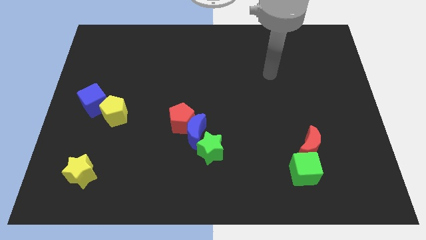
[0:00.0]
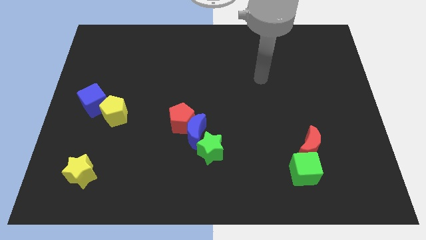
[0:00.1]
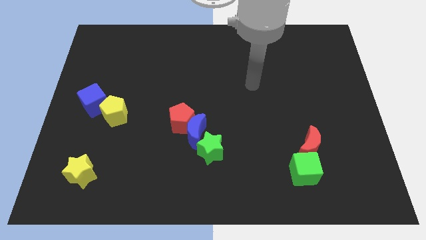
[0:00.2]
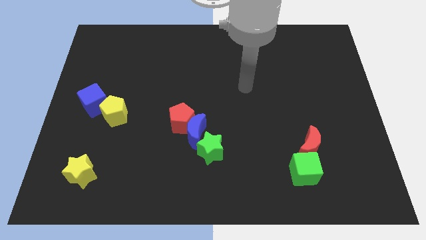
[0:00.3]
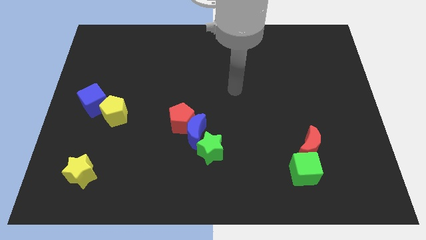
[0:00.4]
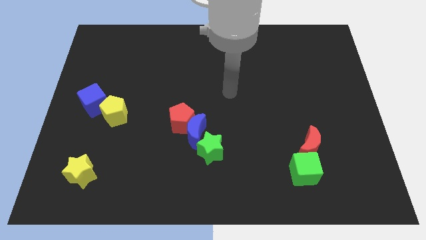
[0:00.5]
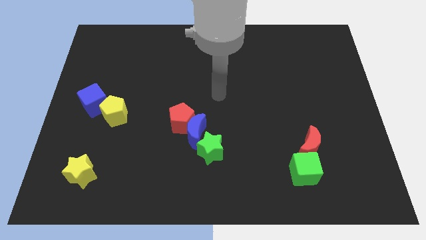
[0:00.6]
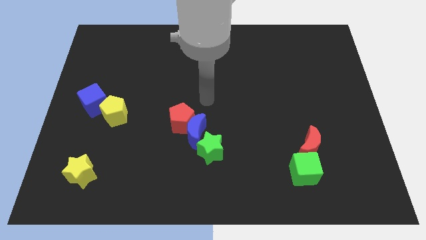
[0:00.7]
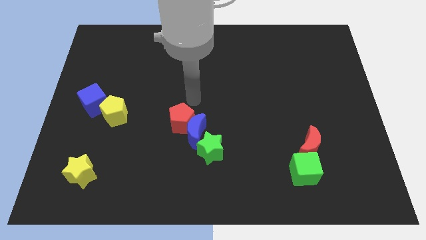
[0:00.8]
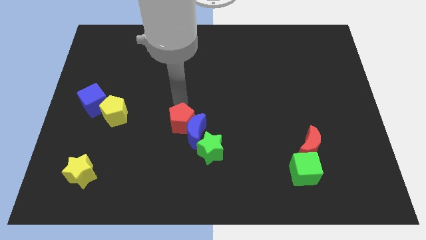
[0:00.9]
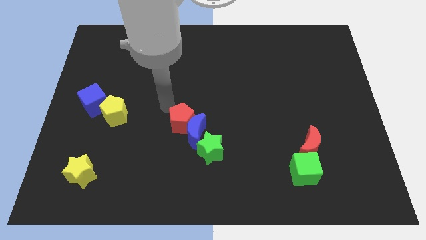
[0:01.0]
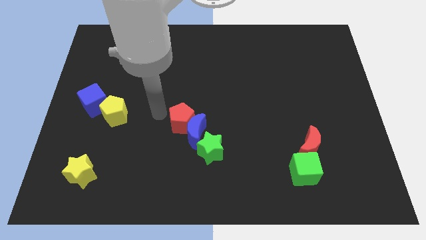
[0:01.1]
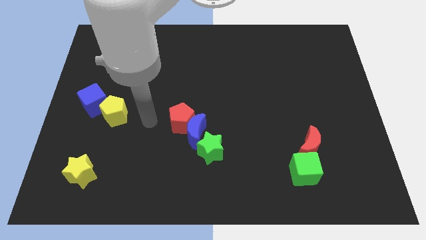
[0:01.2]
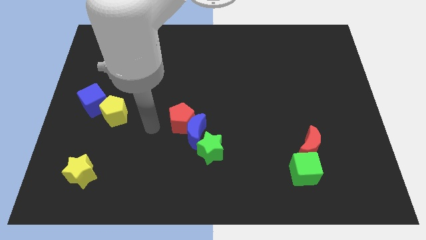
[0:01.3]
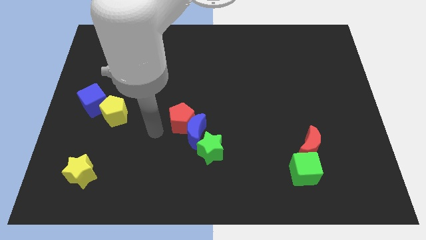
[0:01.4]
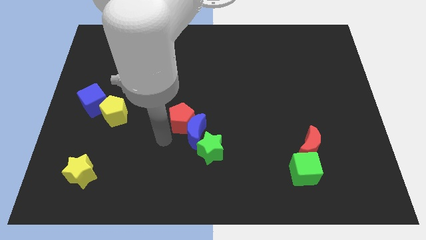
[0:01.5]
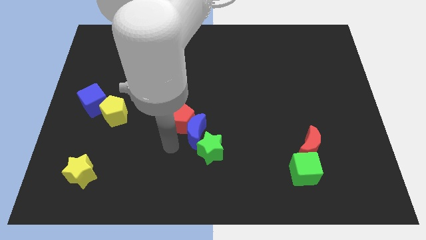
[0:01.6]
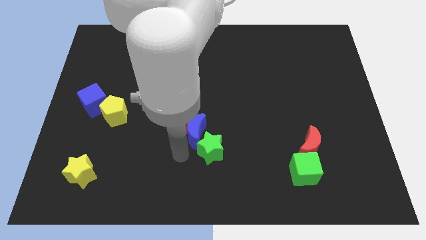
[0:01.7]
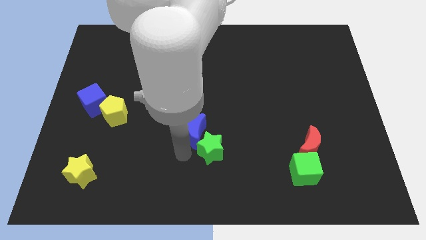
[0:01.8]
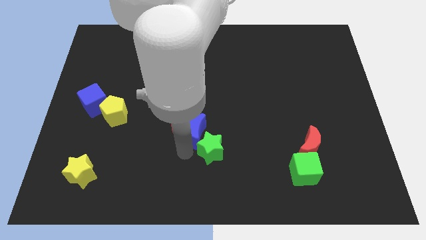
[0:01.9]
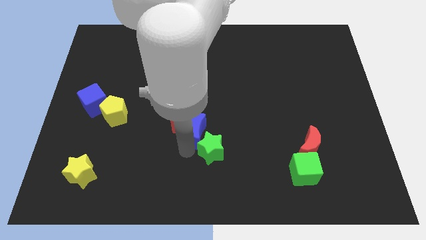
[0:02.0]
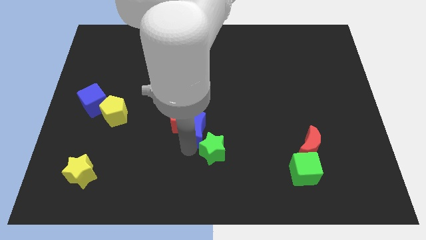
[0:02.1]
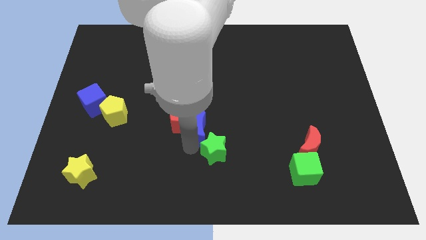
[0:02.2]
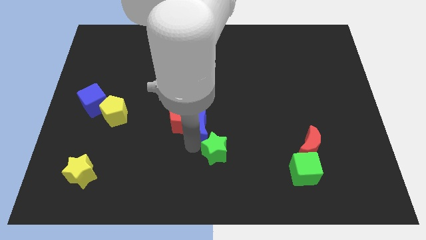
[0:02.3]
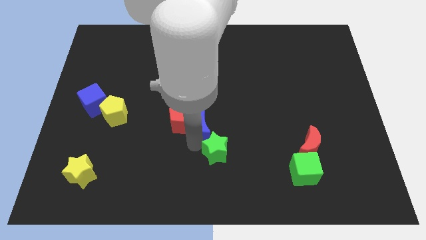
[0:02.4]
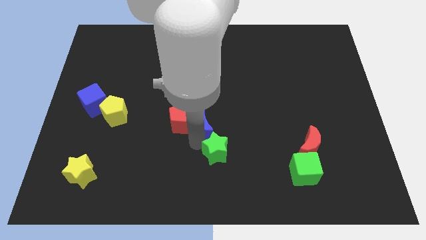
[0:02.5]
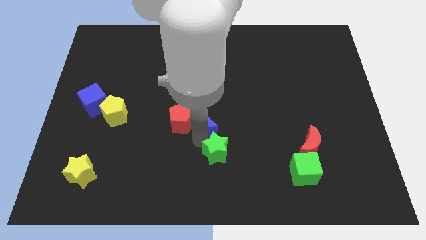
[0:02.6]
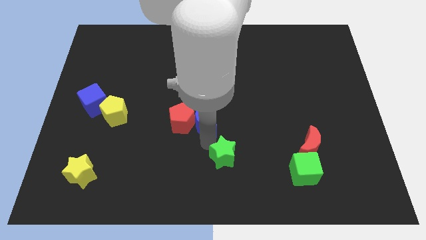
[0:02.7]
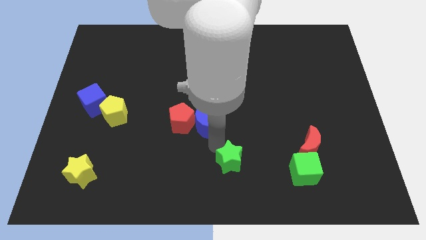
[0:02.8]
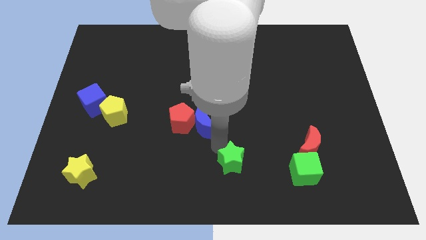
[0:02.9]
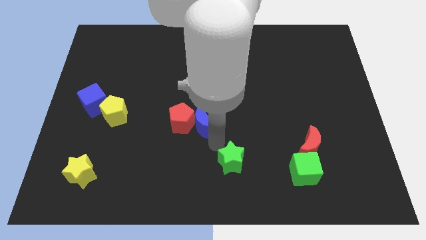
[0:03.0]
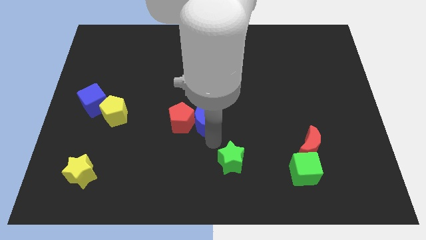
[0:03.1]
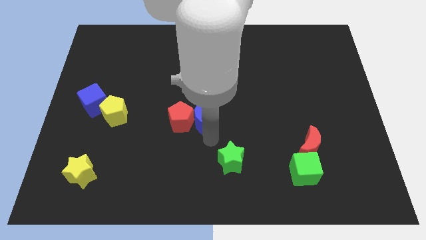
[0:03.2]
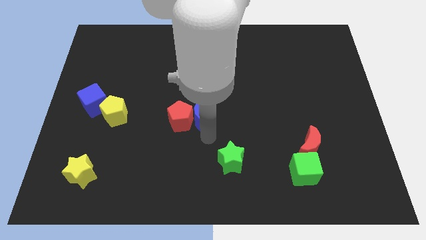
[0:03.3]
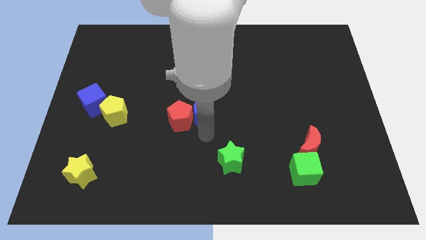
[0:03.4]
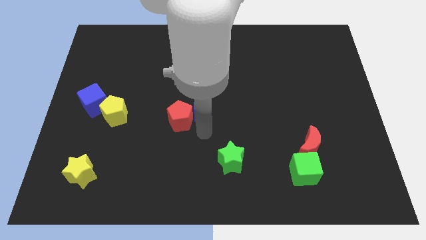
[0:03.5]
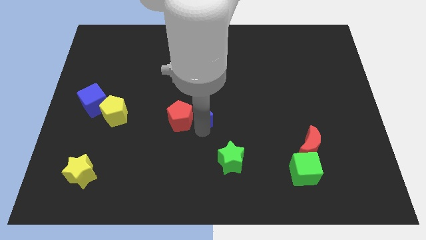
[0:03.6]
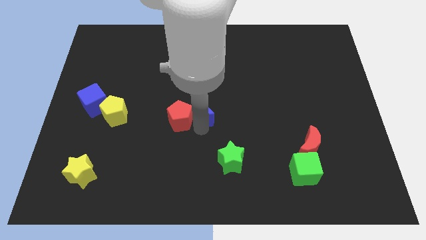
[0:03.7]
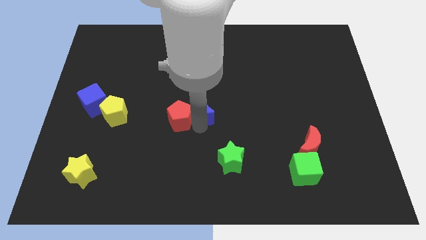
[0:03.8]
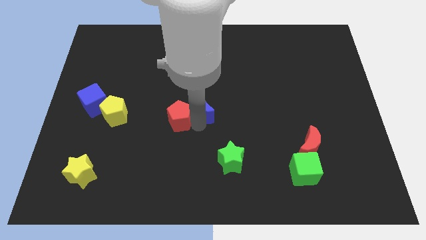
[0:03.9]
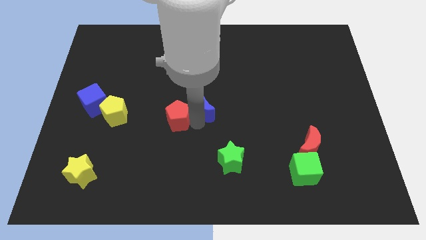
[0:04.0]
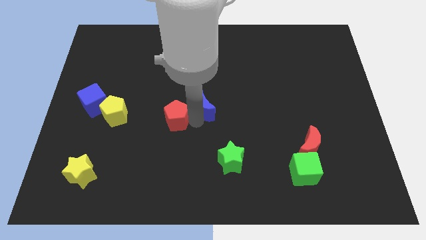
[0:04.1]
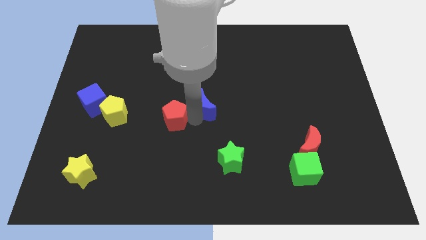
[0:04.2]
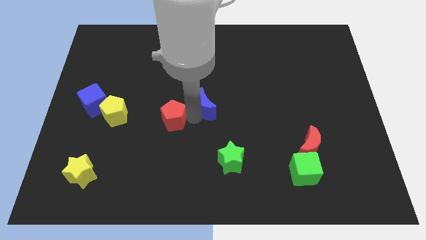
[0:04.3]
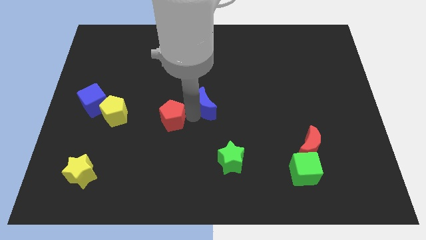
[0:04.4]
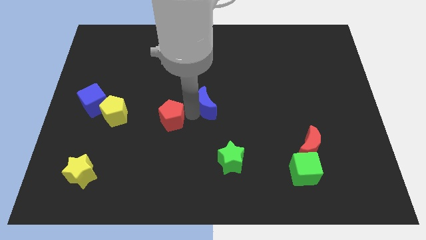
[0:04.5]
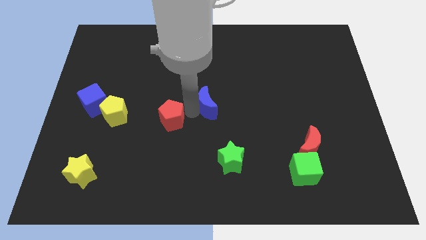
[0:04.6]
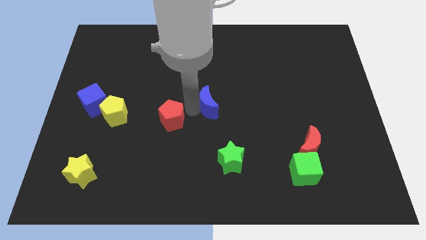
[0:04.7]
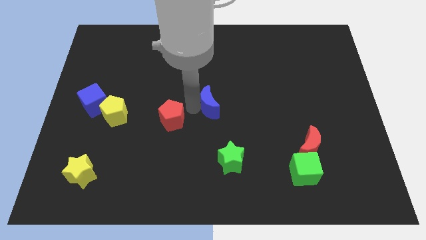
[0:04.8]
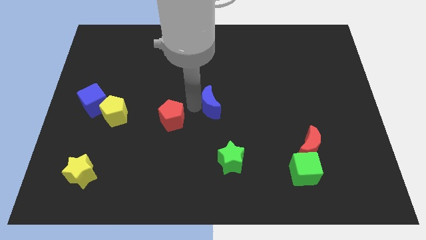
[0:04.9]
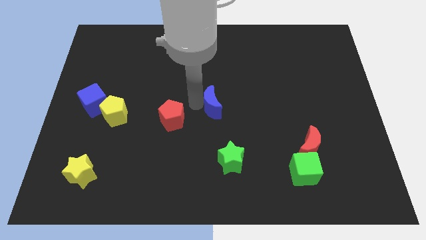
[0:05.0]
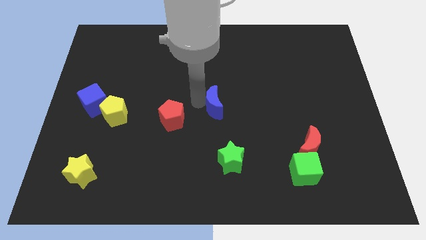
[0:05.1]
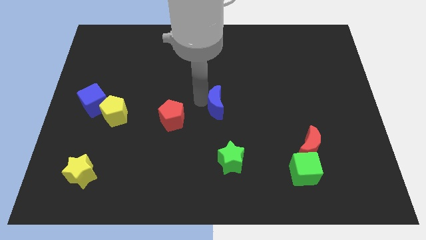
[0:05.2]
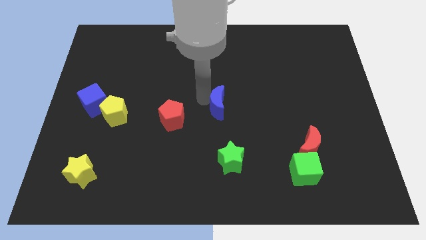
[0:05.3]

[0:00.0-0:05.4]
move the blue moon away from the red pentagon and green star

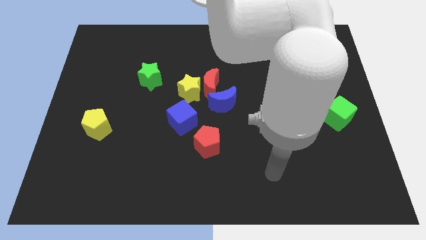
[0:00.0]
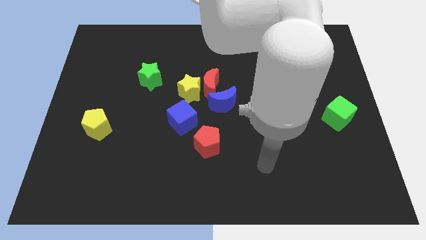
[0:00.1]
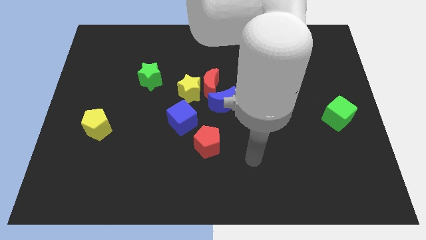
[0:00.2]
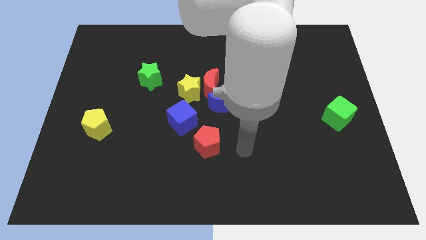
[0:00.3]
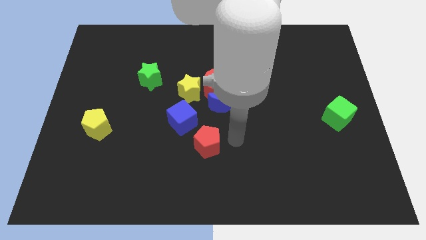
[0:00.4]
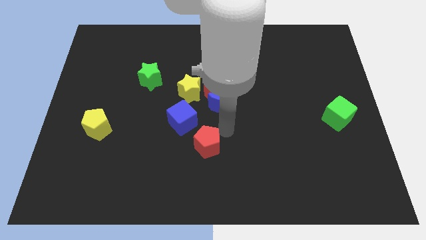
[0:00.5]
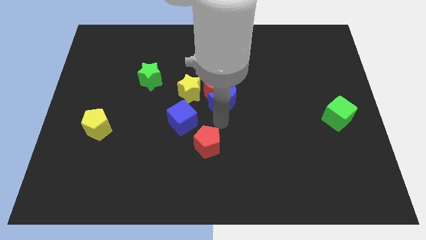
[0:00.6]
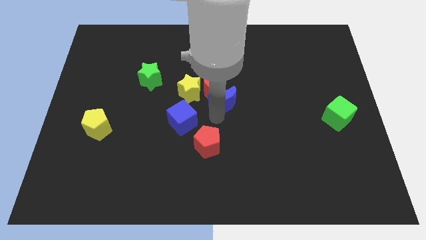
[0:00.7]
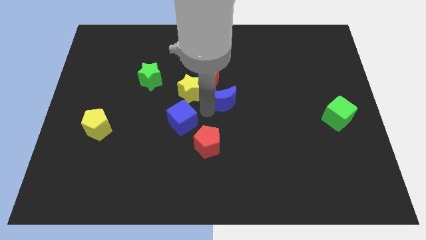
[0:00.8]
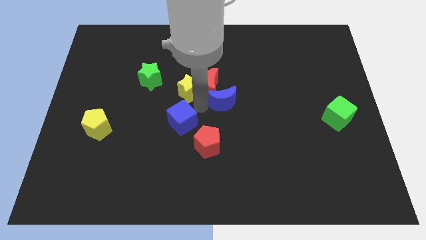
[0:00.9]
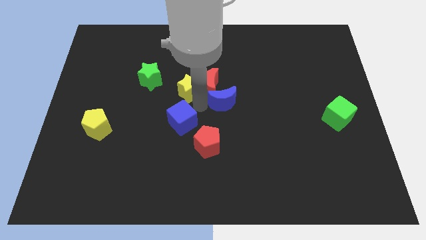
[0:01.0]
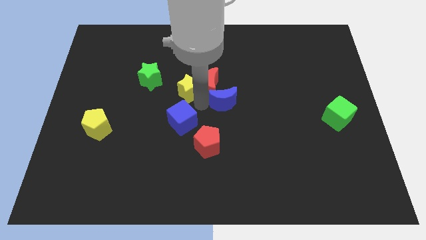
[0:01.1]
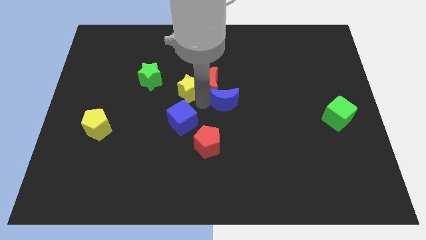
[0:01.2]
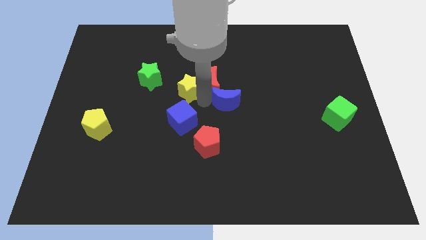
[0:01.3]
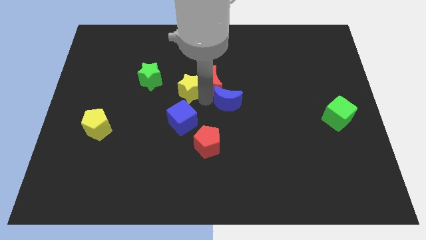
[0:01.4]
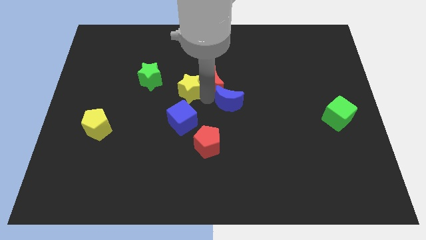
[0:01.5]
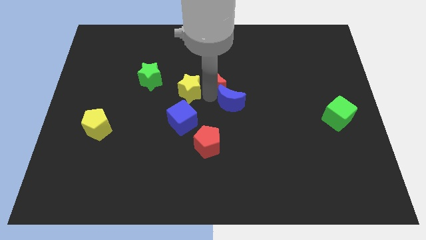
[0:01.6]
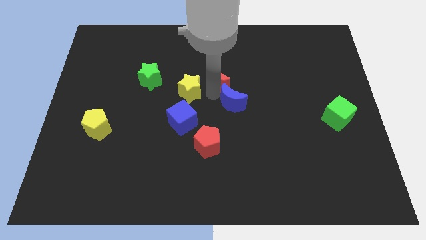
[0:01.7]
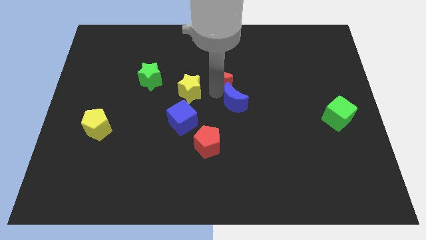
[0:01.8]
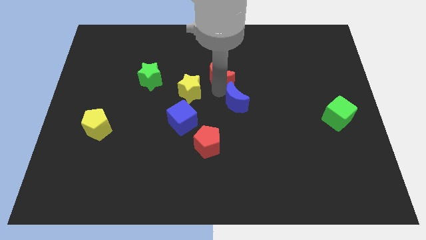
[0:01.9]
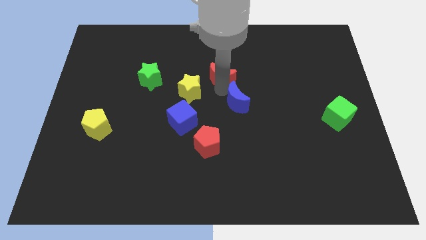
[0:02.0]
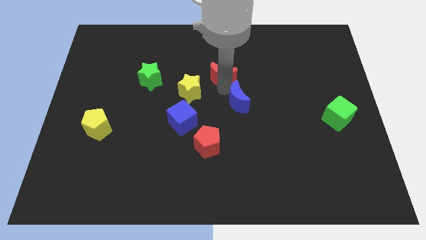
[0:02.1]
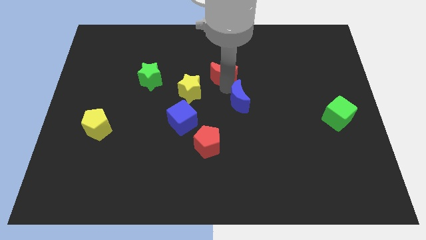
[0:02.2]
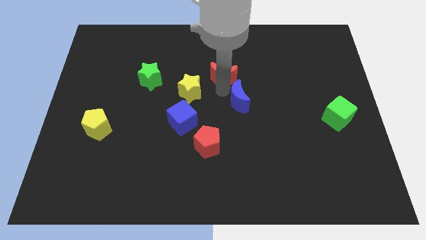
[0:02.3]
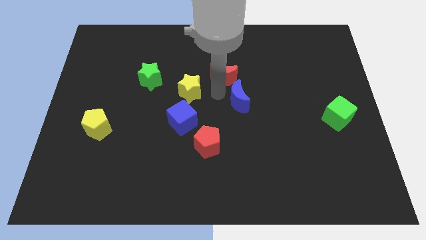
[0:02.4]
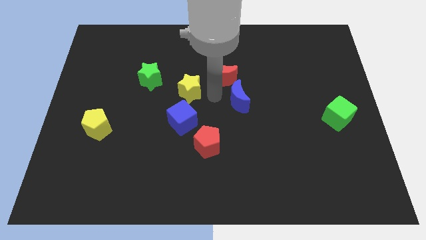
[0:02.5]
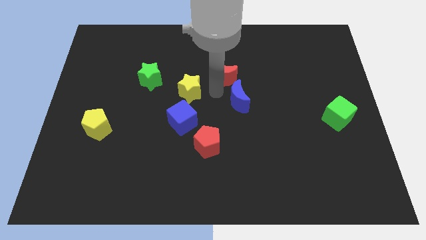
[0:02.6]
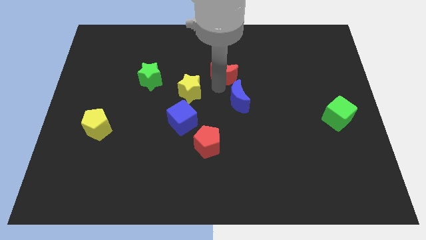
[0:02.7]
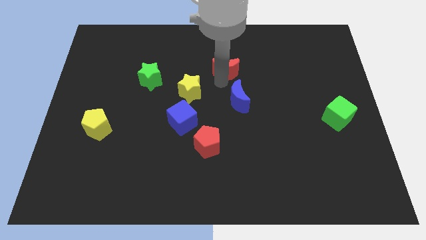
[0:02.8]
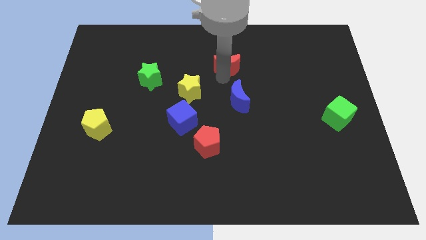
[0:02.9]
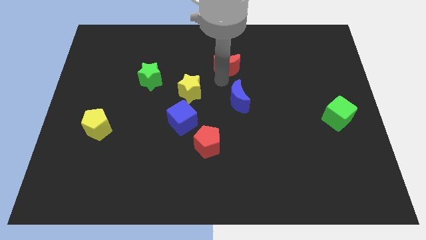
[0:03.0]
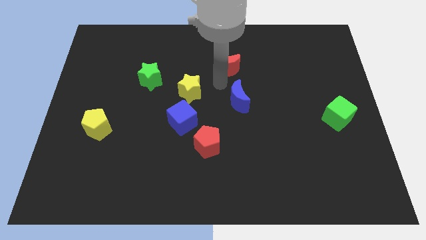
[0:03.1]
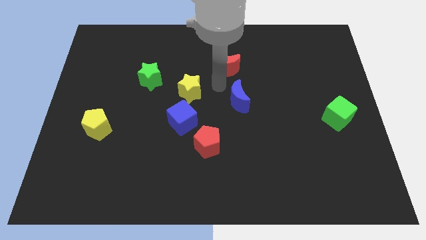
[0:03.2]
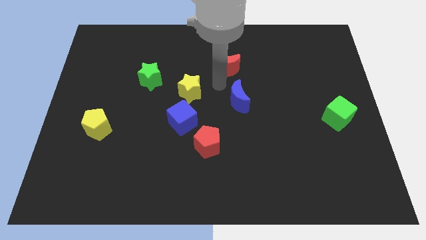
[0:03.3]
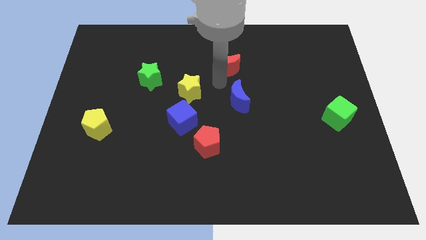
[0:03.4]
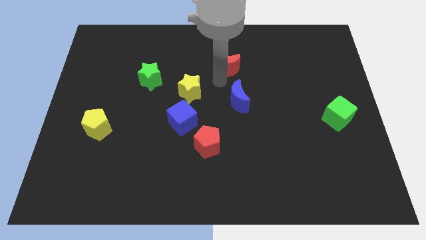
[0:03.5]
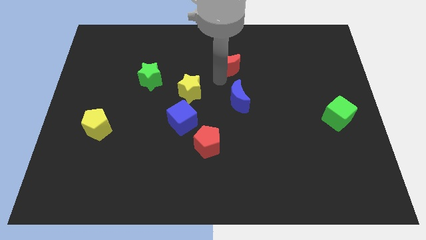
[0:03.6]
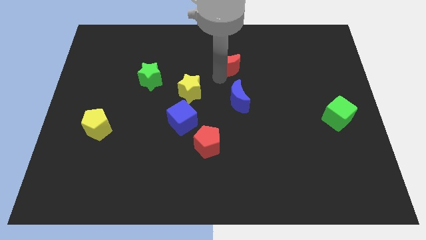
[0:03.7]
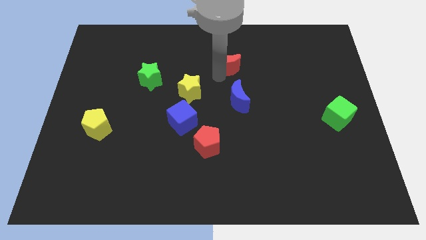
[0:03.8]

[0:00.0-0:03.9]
pull the red moon apart from the yellow star and blue moon
